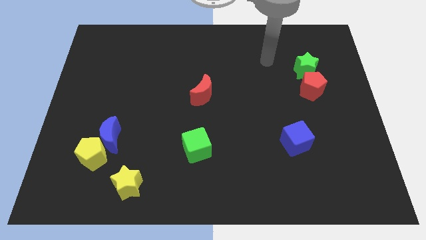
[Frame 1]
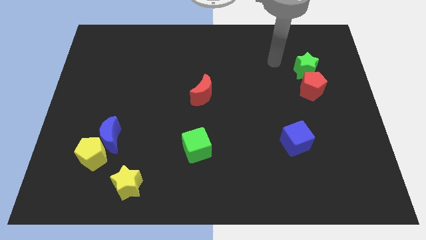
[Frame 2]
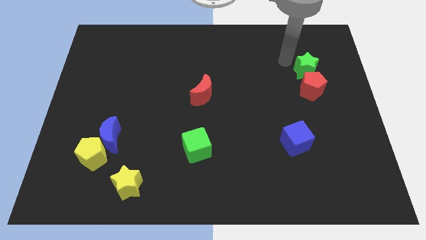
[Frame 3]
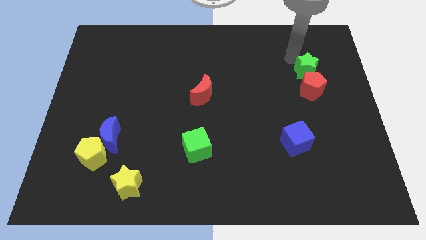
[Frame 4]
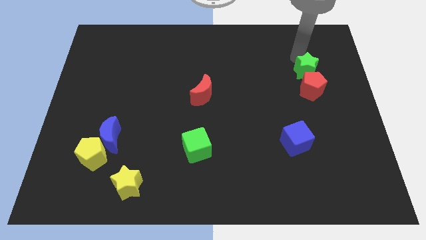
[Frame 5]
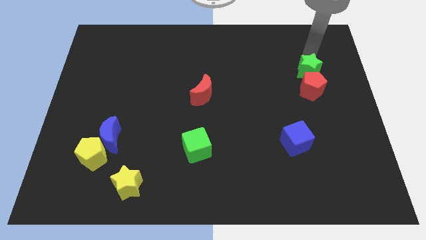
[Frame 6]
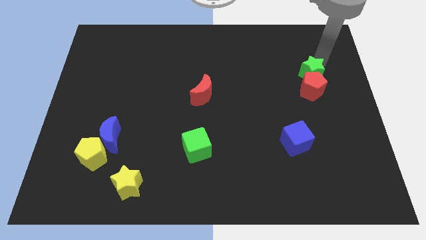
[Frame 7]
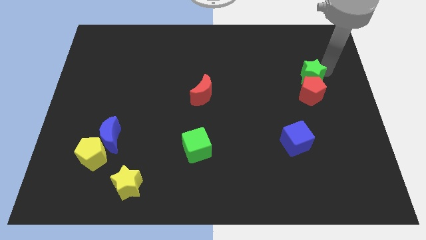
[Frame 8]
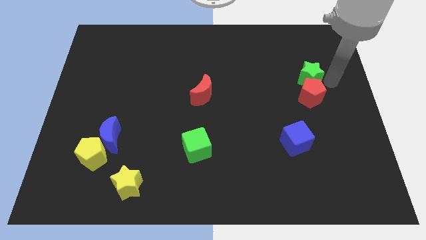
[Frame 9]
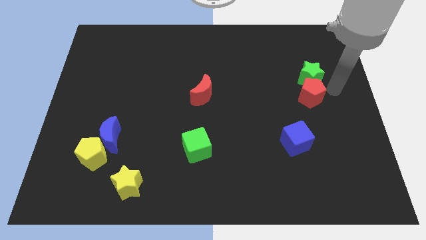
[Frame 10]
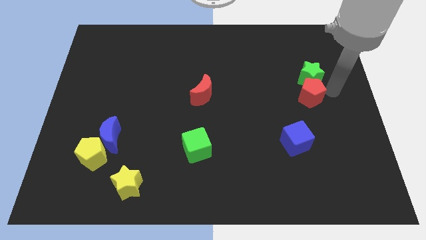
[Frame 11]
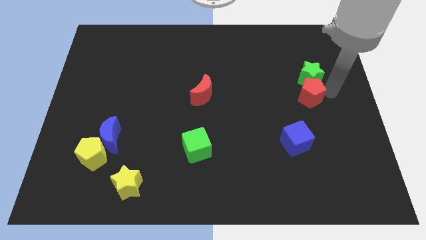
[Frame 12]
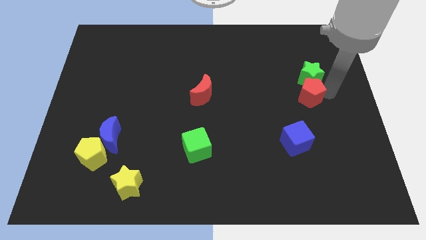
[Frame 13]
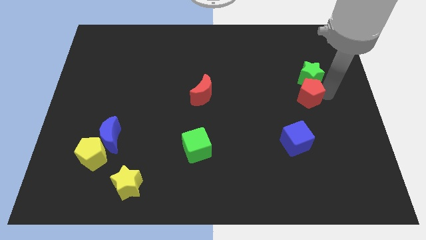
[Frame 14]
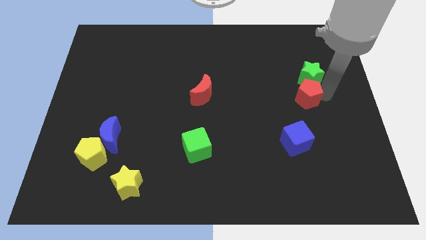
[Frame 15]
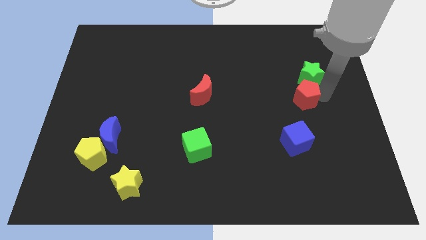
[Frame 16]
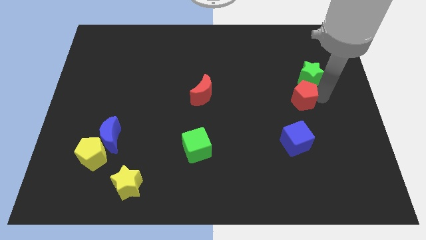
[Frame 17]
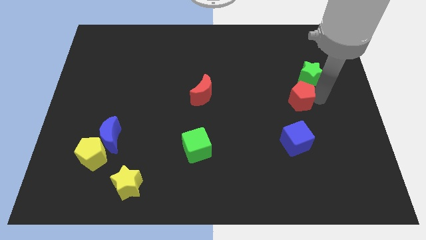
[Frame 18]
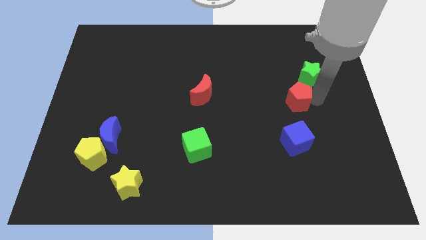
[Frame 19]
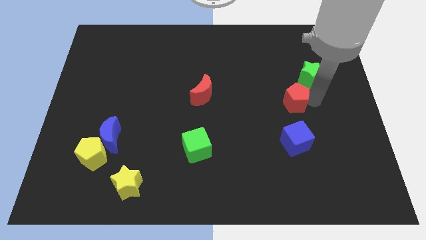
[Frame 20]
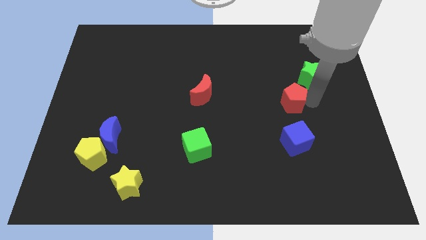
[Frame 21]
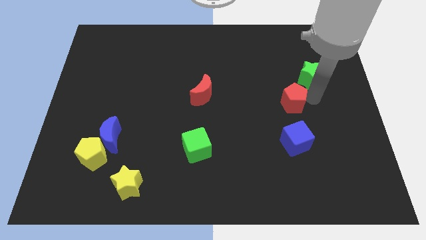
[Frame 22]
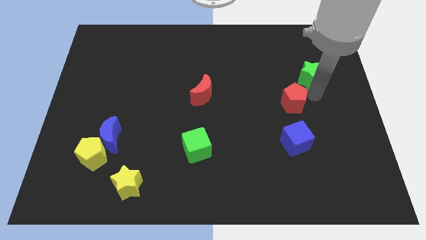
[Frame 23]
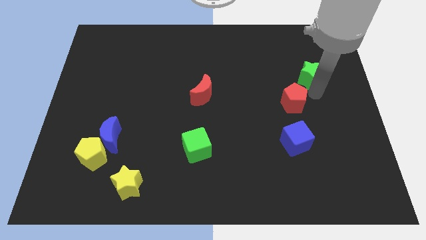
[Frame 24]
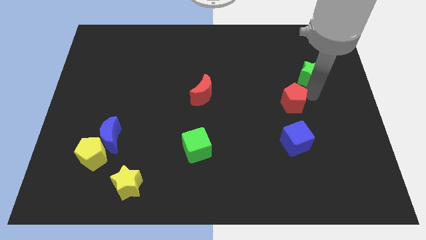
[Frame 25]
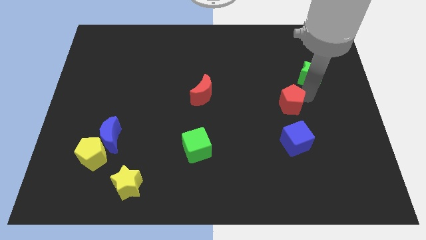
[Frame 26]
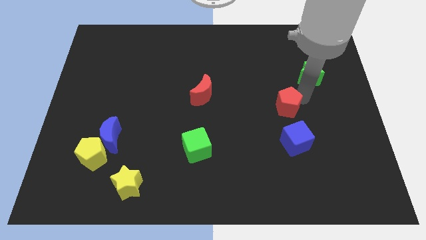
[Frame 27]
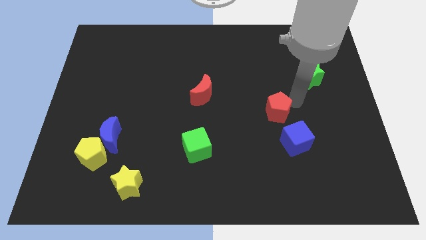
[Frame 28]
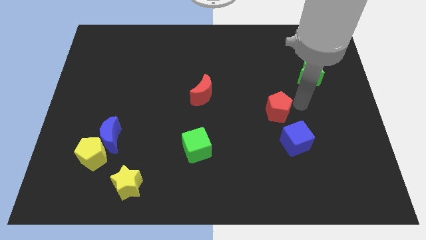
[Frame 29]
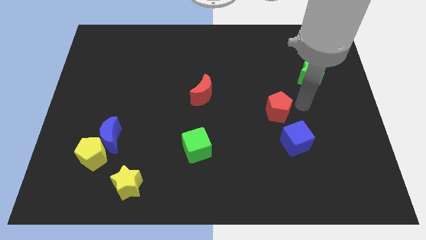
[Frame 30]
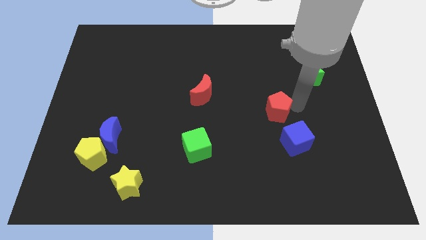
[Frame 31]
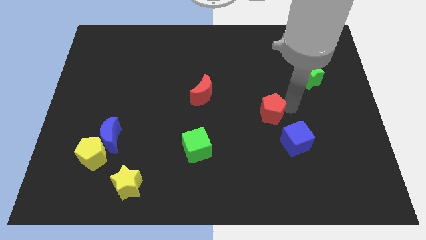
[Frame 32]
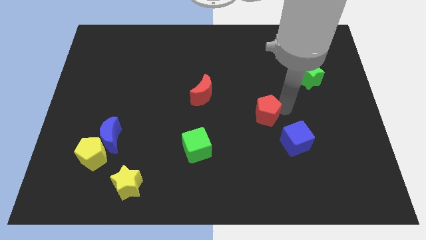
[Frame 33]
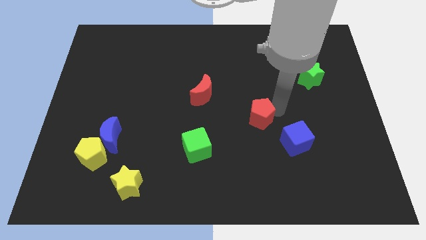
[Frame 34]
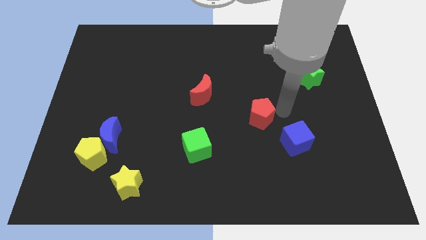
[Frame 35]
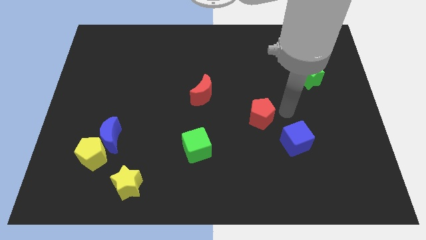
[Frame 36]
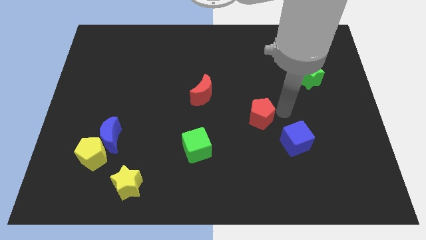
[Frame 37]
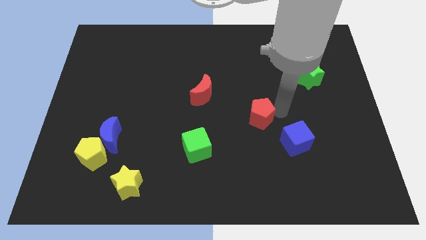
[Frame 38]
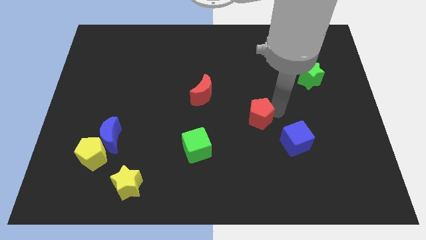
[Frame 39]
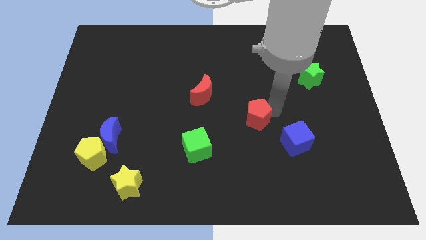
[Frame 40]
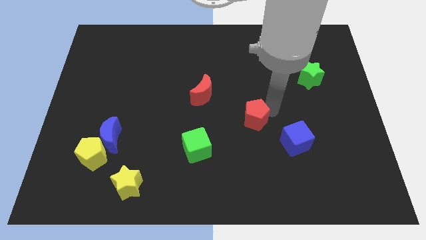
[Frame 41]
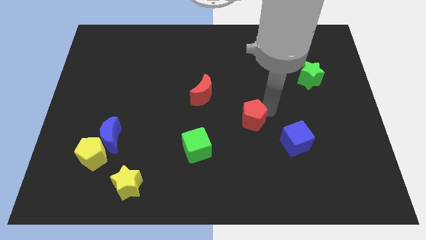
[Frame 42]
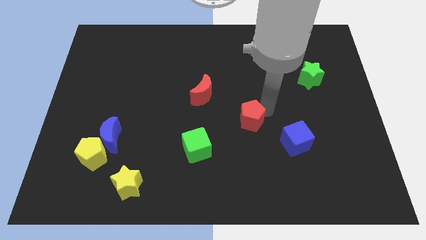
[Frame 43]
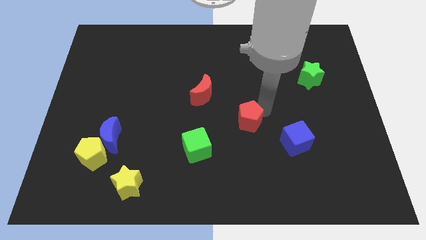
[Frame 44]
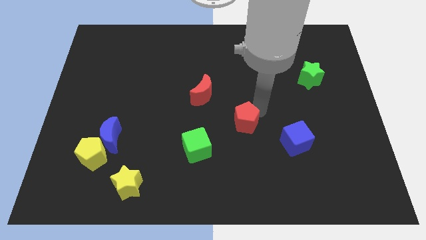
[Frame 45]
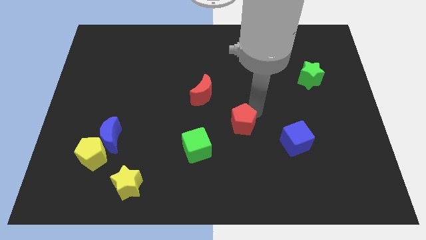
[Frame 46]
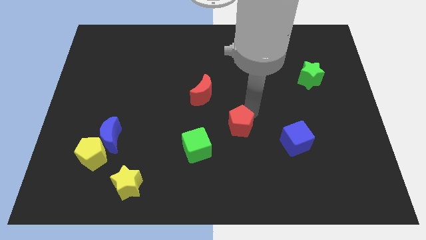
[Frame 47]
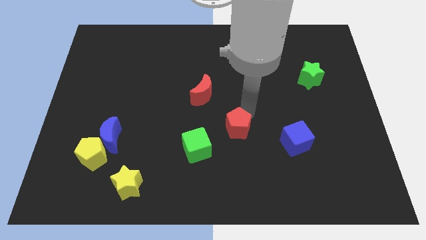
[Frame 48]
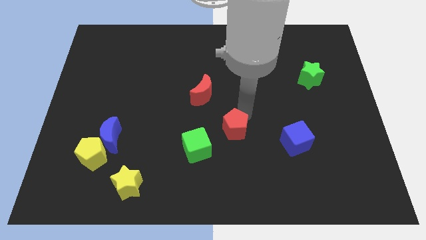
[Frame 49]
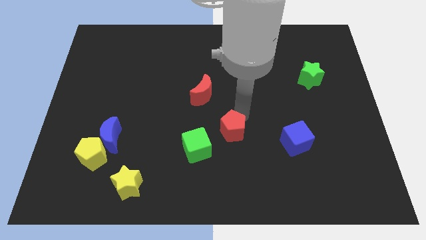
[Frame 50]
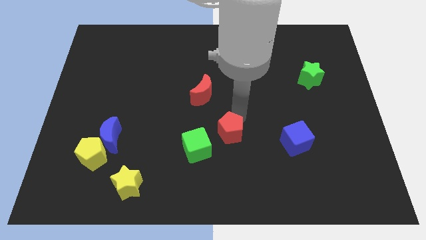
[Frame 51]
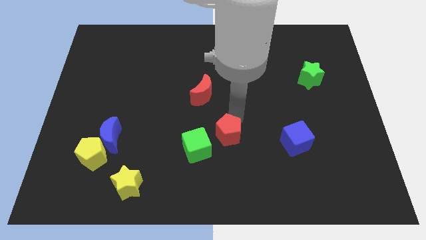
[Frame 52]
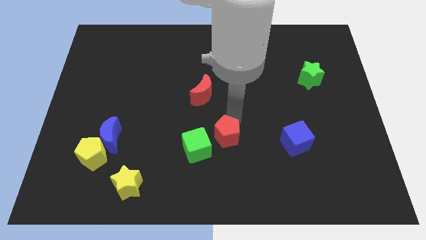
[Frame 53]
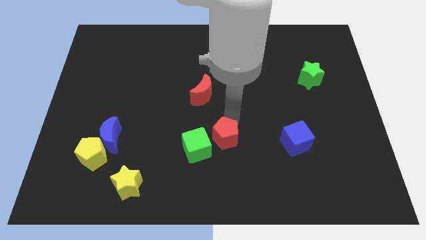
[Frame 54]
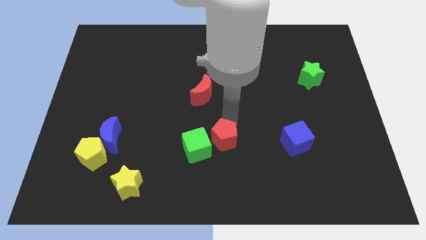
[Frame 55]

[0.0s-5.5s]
slide the red pentagon close to the green cube

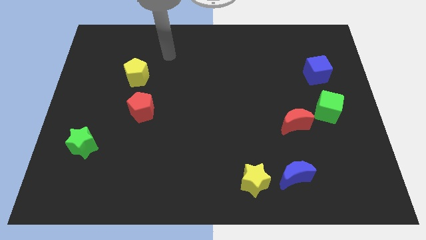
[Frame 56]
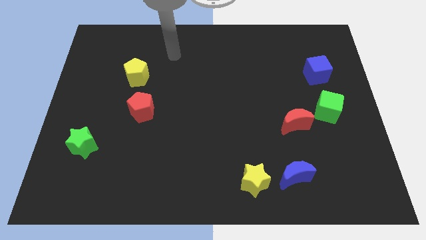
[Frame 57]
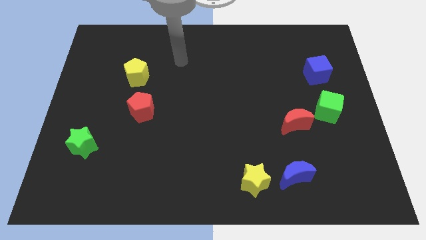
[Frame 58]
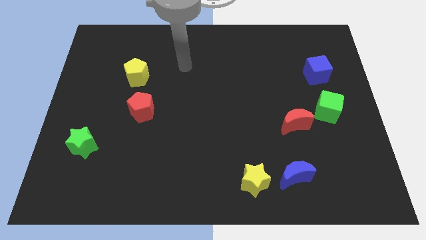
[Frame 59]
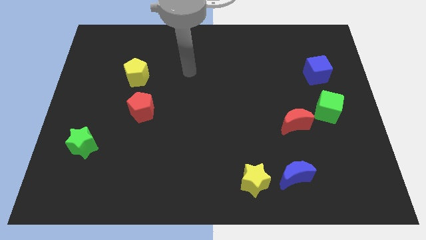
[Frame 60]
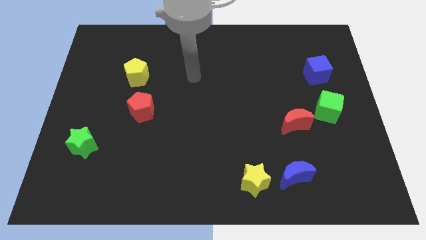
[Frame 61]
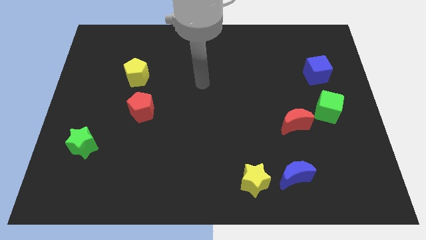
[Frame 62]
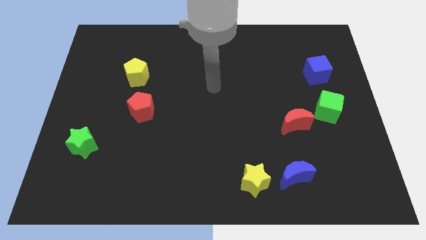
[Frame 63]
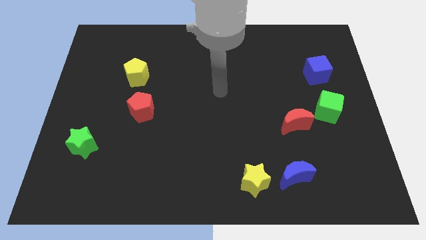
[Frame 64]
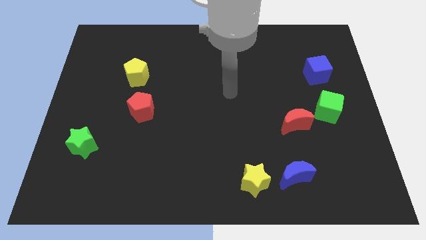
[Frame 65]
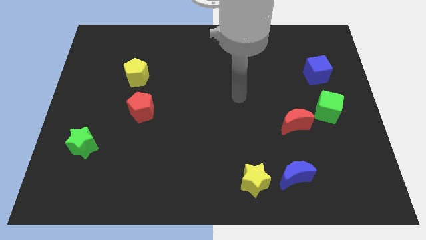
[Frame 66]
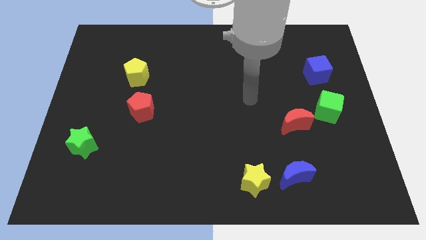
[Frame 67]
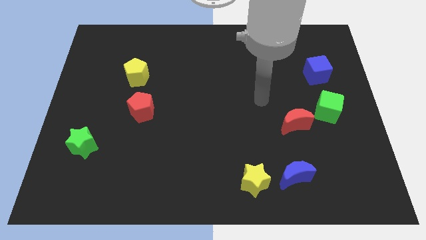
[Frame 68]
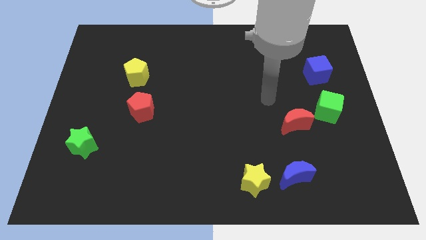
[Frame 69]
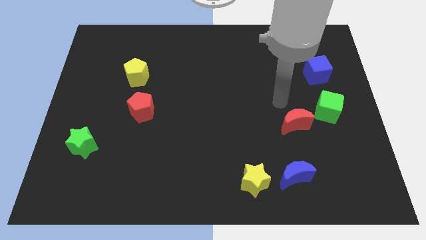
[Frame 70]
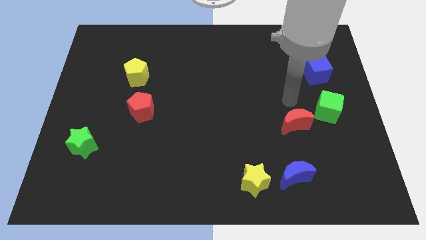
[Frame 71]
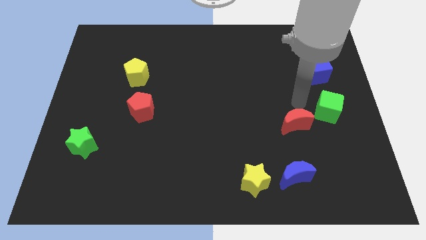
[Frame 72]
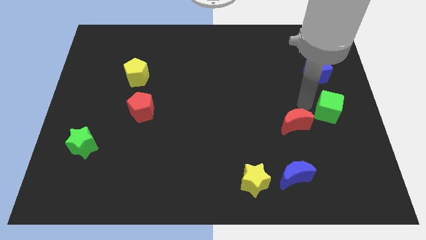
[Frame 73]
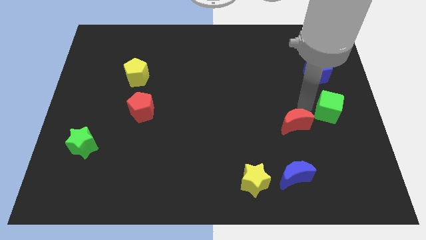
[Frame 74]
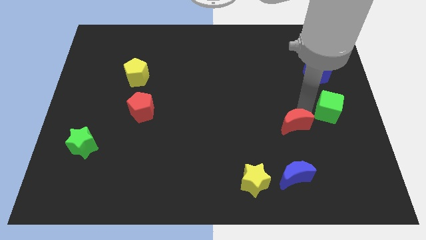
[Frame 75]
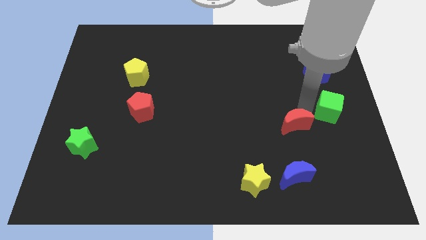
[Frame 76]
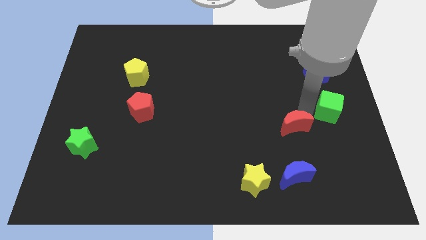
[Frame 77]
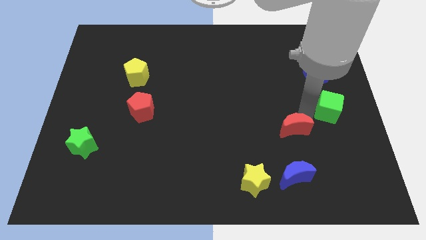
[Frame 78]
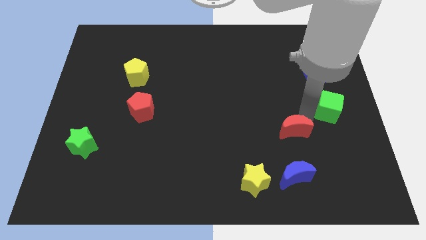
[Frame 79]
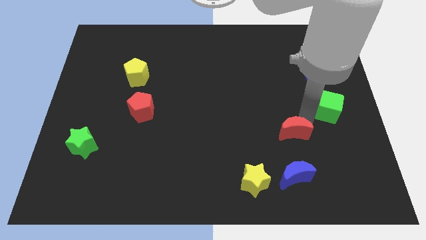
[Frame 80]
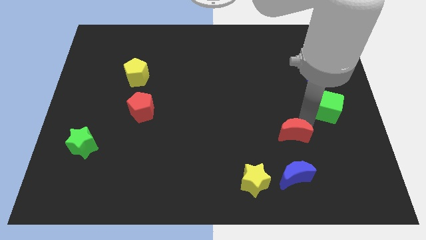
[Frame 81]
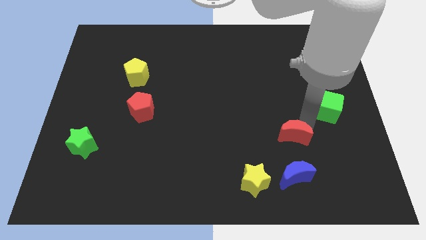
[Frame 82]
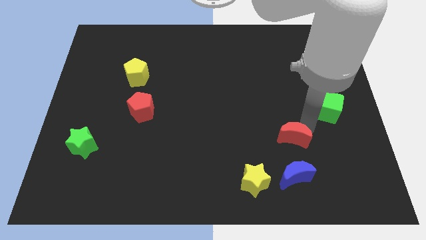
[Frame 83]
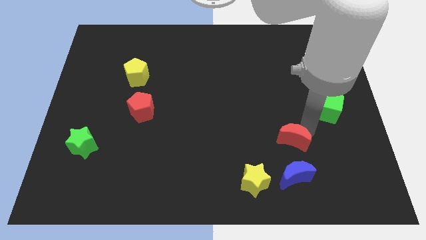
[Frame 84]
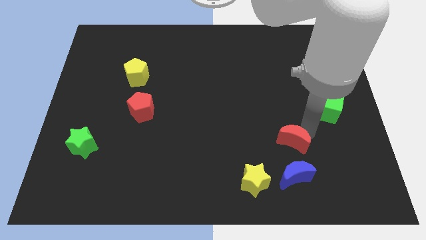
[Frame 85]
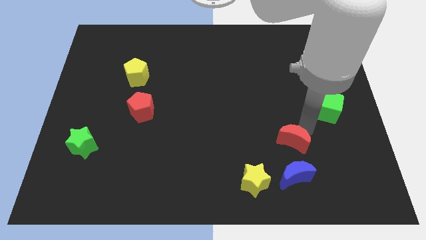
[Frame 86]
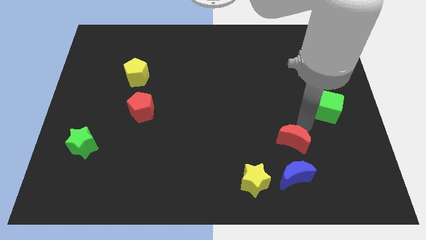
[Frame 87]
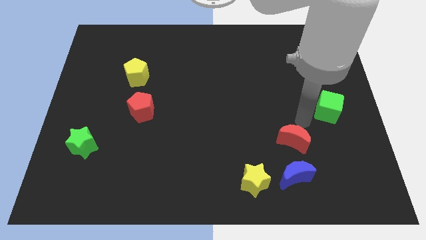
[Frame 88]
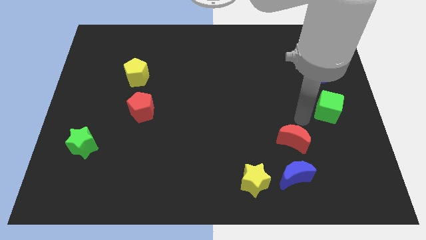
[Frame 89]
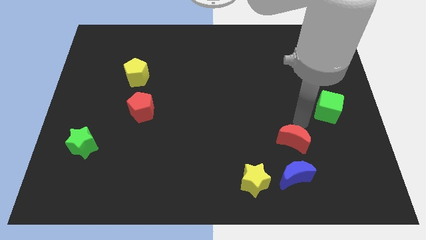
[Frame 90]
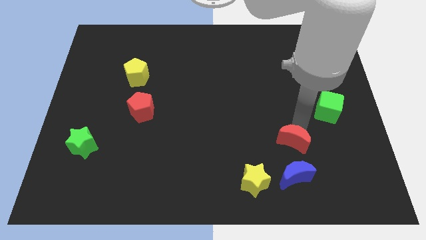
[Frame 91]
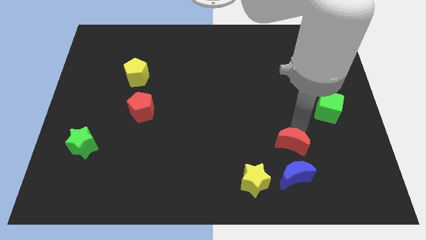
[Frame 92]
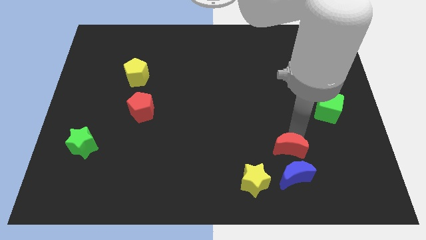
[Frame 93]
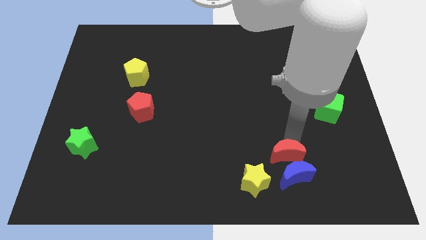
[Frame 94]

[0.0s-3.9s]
move the red moon to the blue moon
